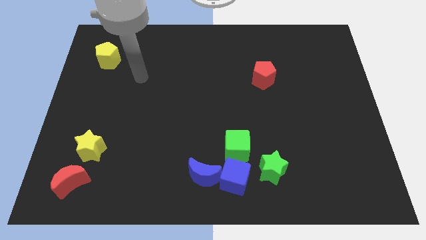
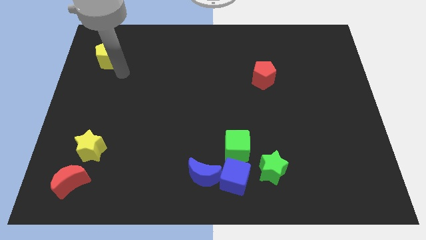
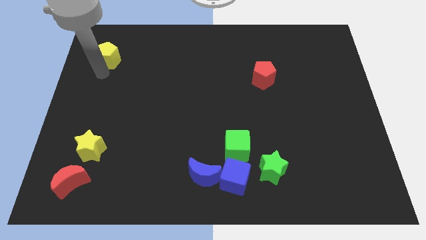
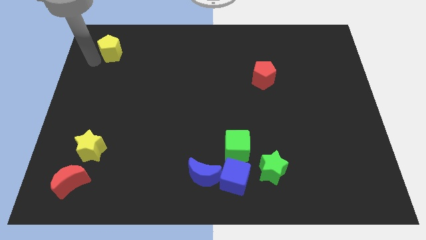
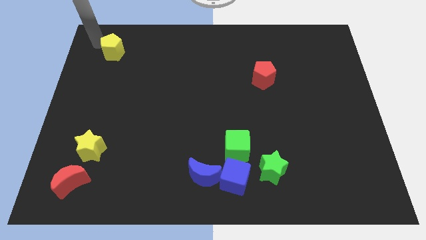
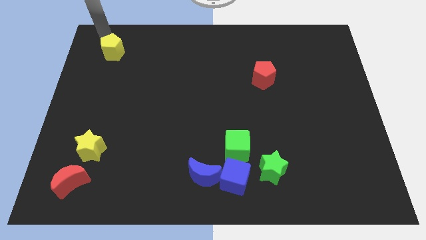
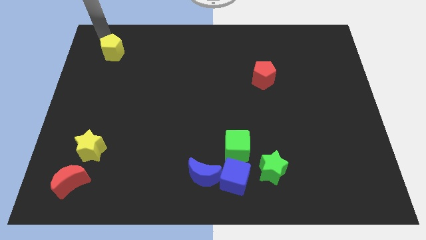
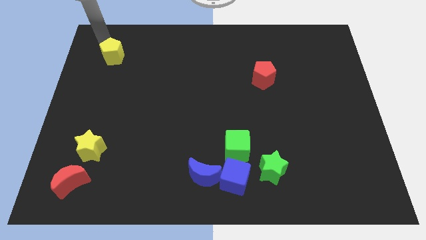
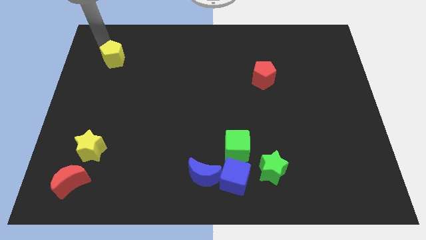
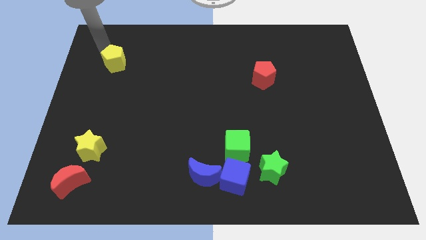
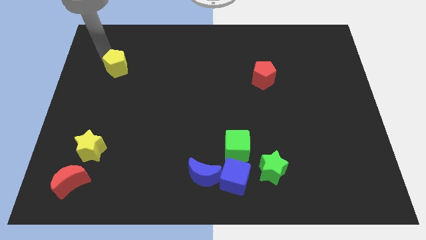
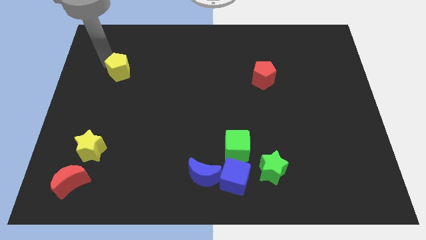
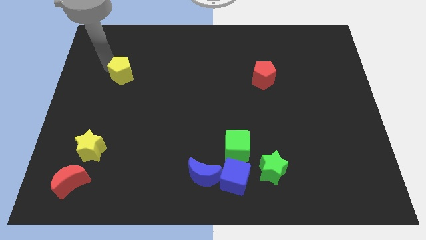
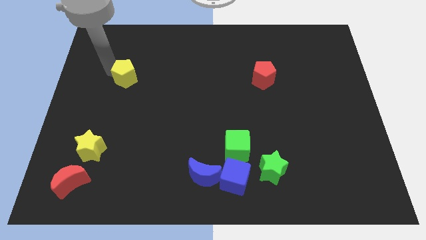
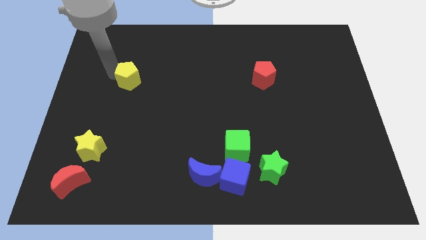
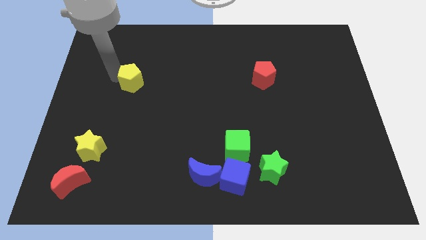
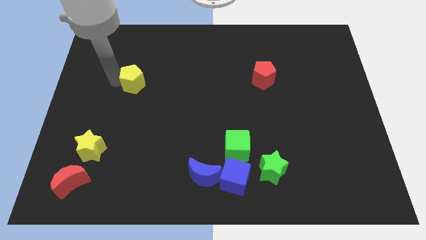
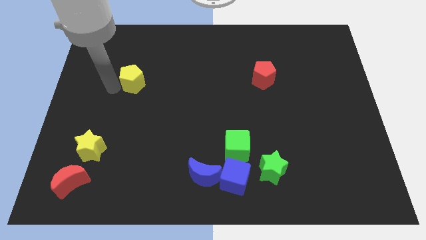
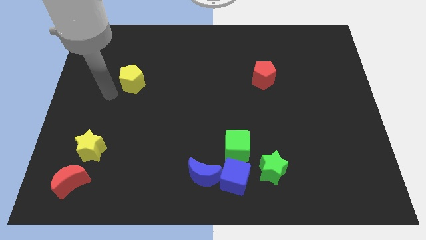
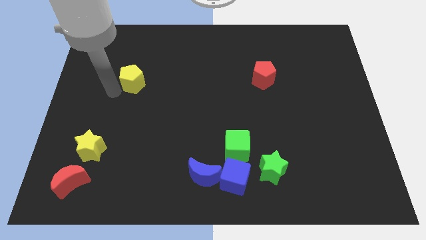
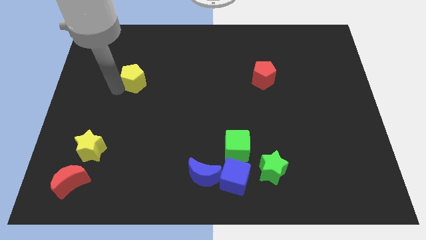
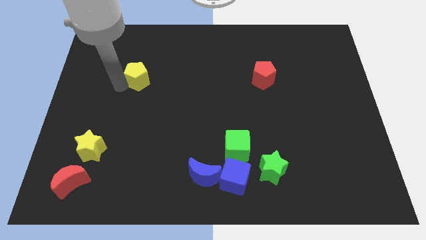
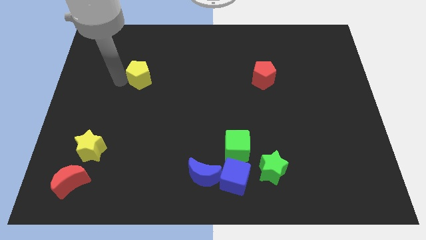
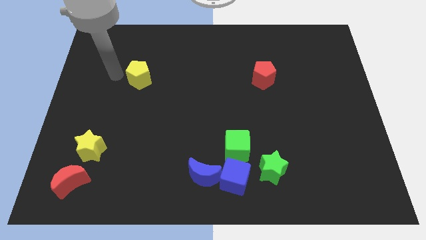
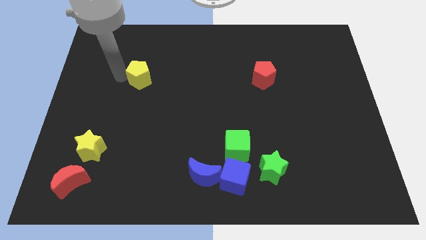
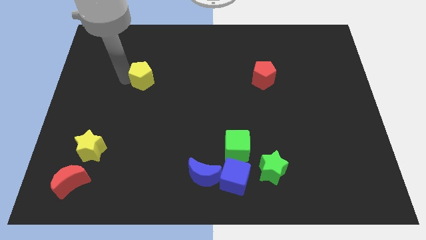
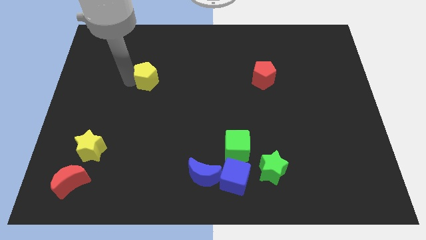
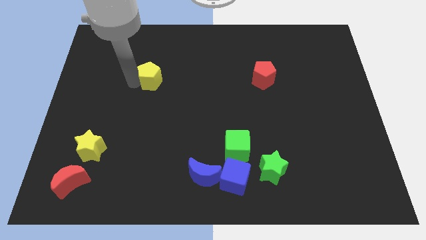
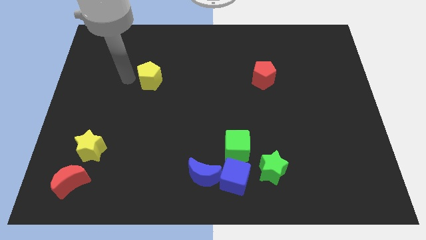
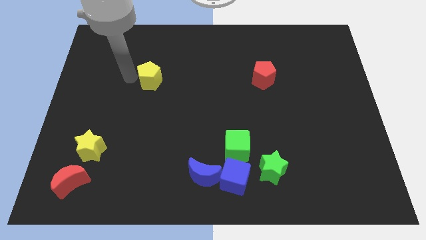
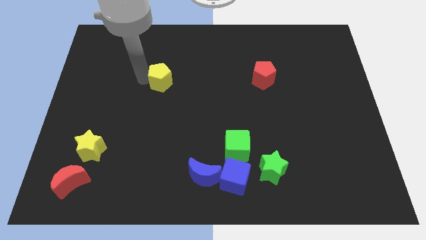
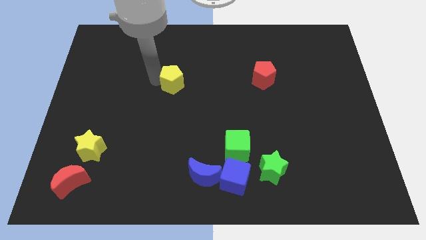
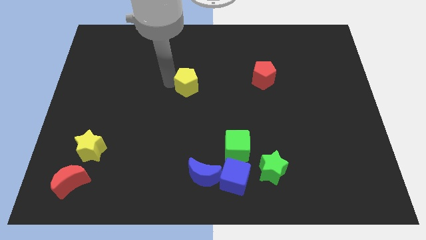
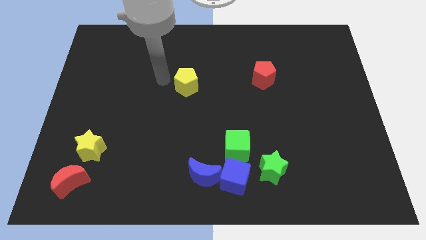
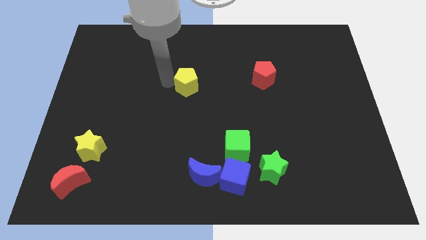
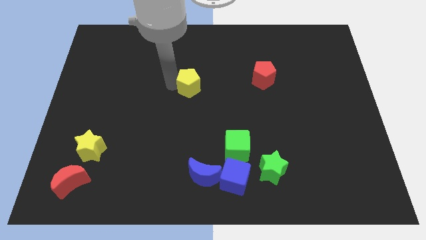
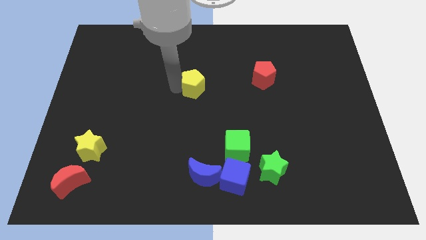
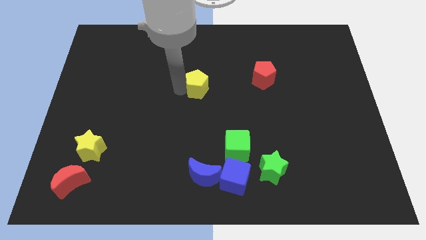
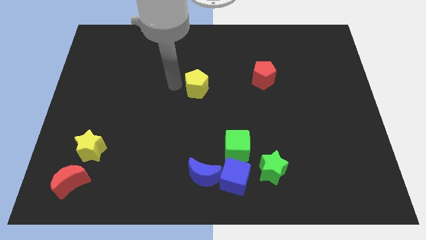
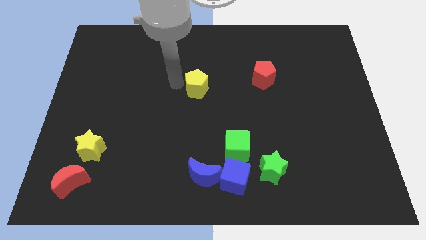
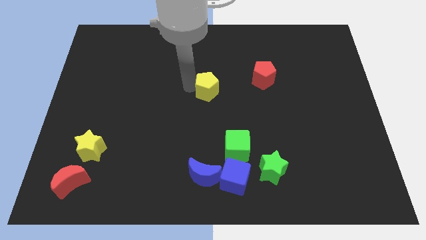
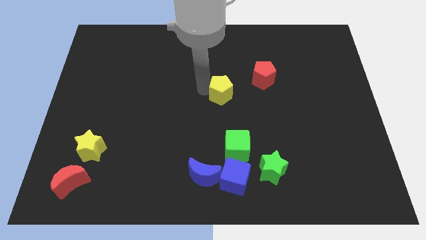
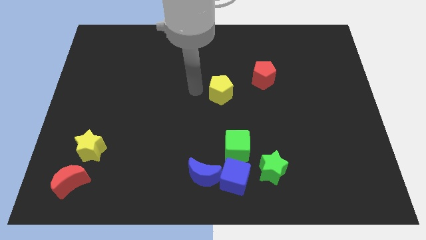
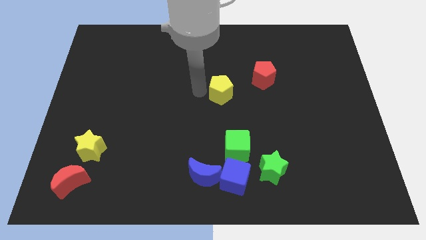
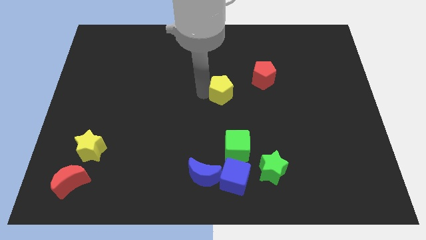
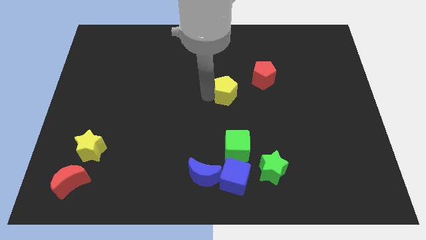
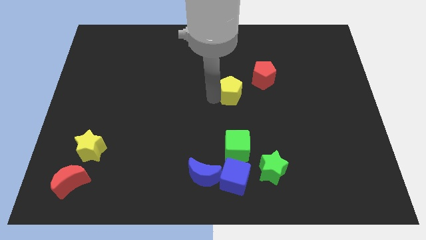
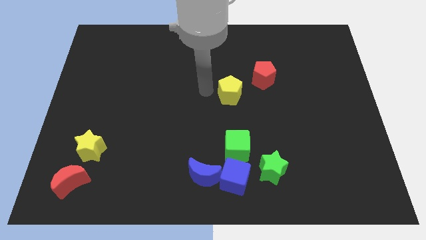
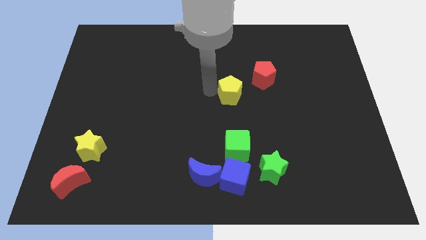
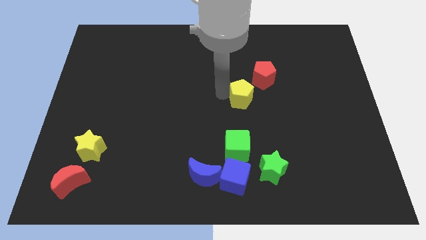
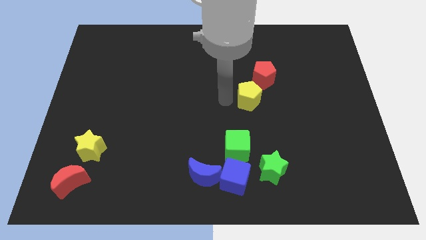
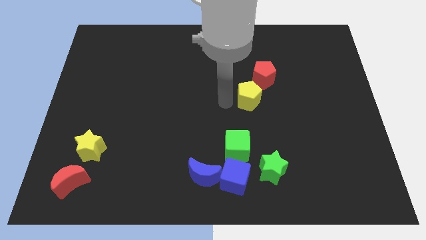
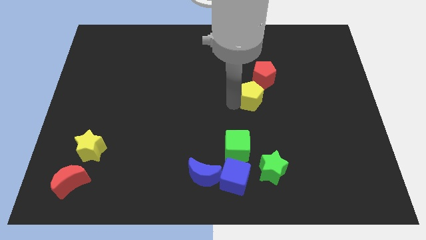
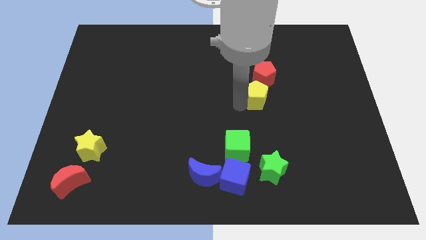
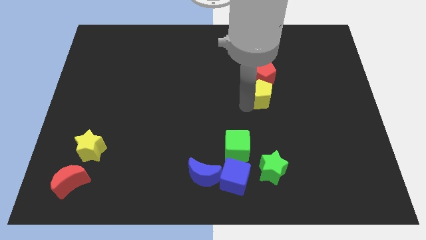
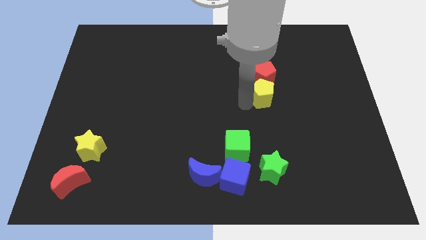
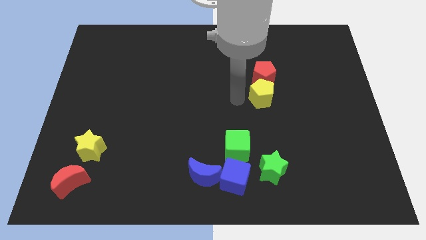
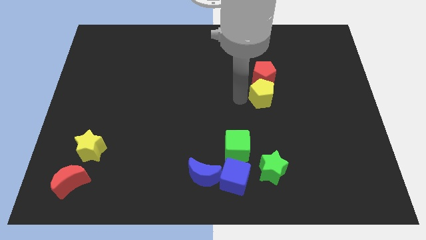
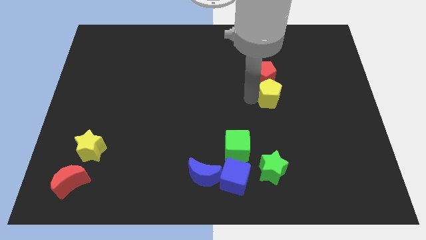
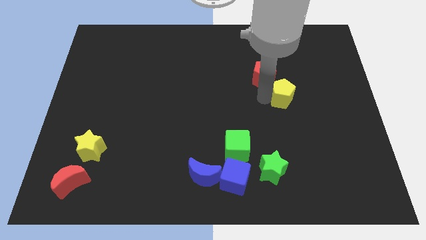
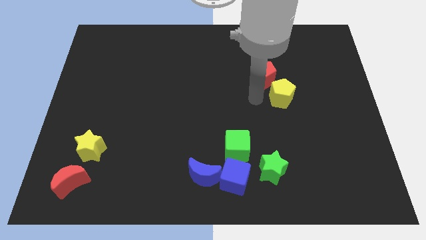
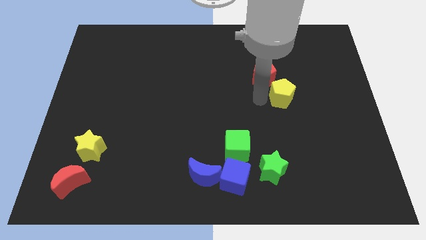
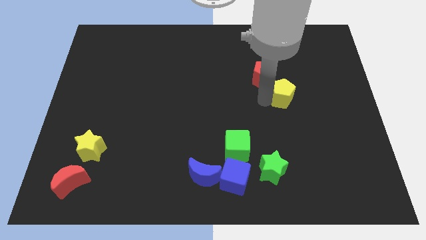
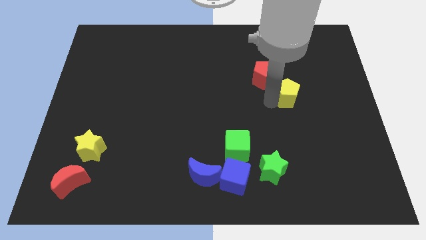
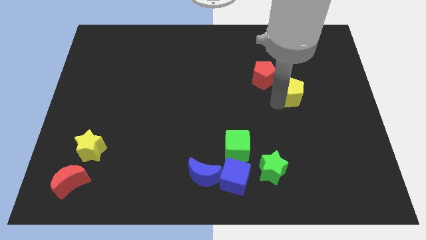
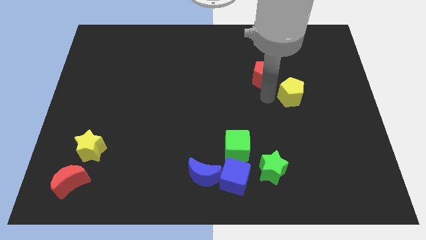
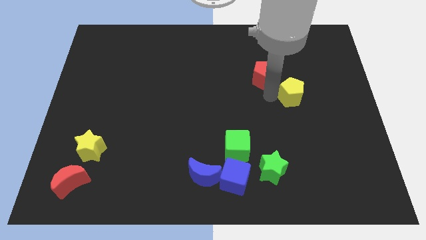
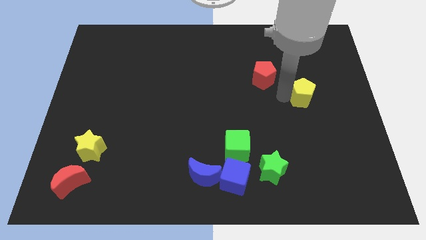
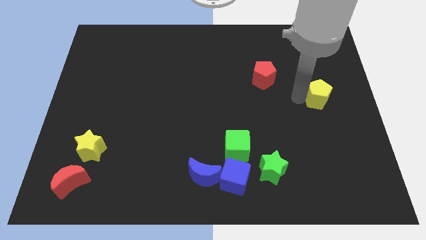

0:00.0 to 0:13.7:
slide the yellow pentagon to the center right
